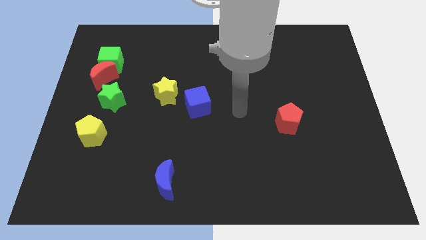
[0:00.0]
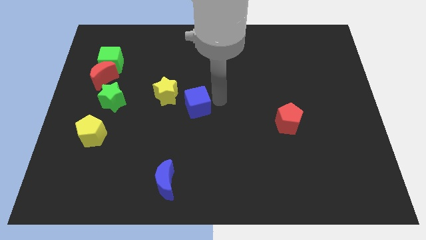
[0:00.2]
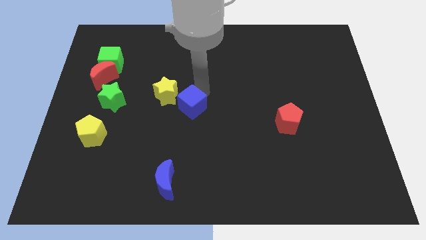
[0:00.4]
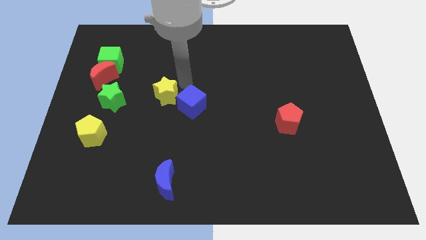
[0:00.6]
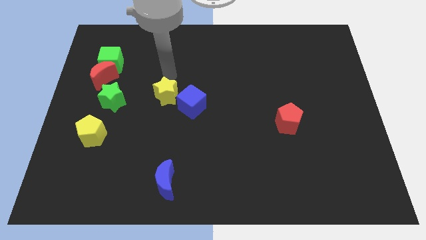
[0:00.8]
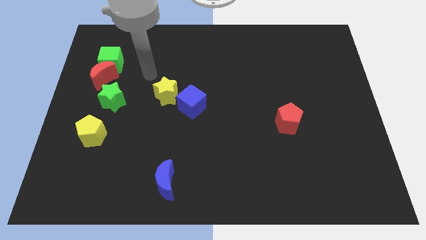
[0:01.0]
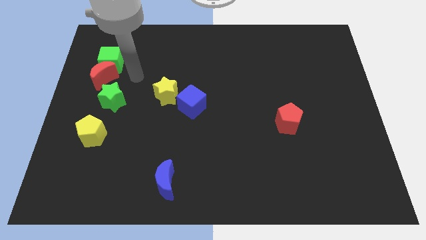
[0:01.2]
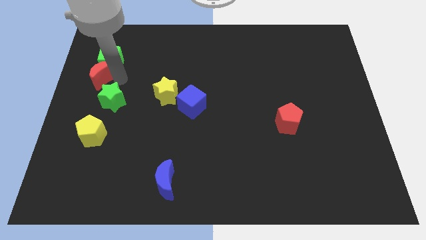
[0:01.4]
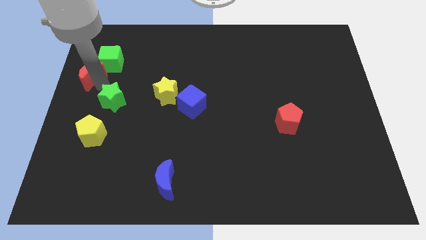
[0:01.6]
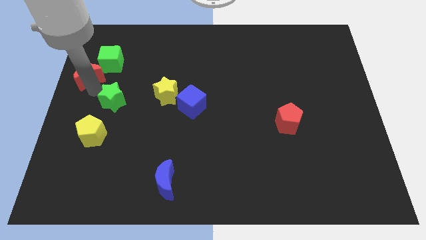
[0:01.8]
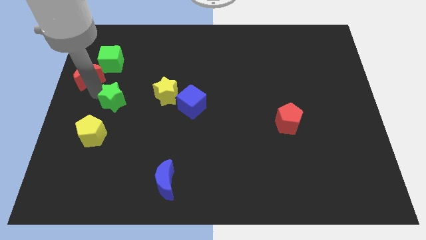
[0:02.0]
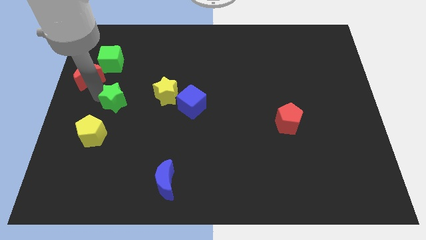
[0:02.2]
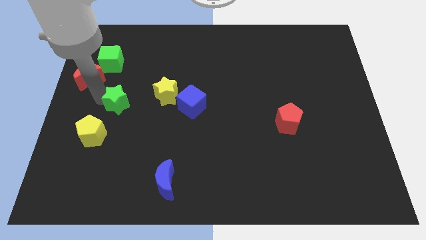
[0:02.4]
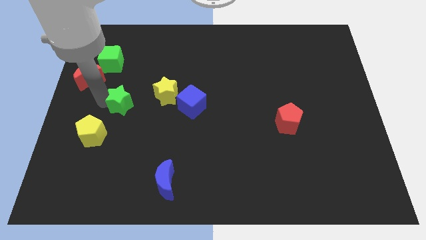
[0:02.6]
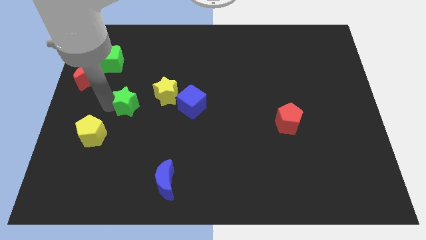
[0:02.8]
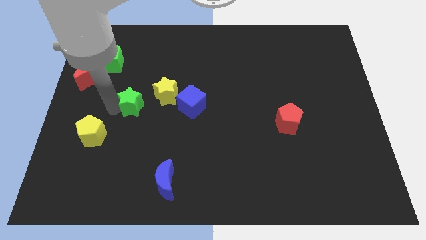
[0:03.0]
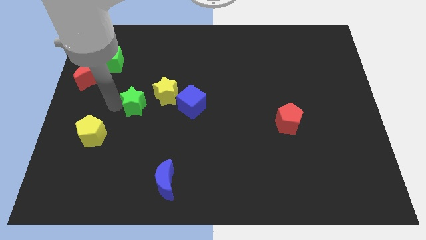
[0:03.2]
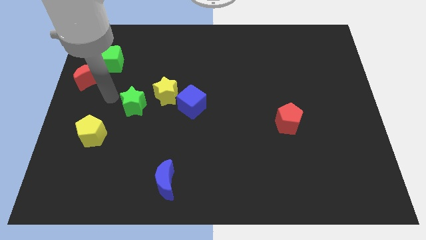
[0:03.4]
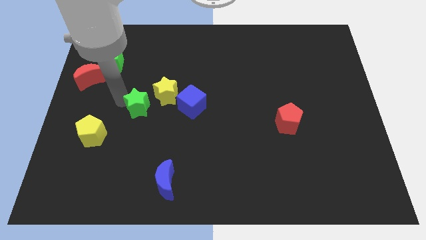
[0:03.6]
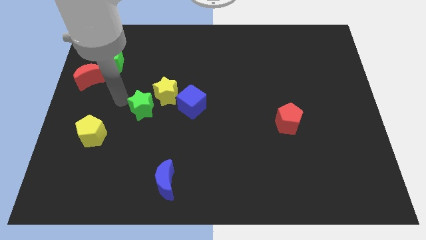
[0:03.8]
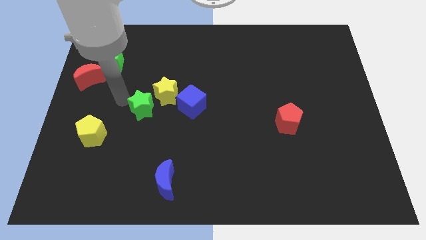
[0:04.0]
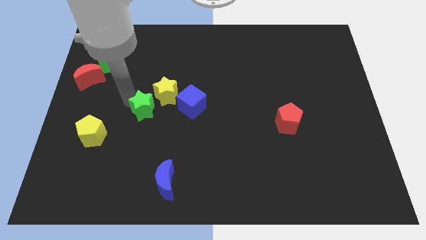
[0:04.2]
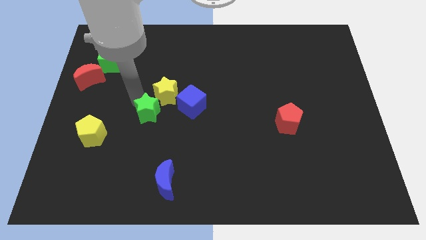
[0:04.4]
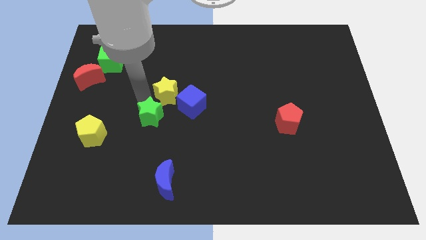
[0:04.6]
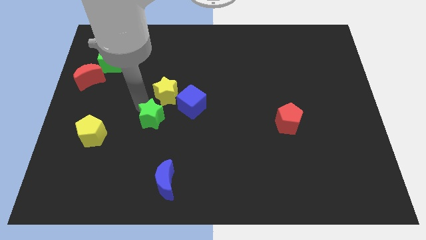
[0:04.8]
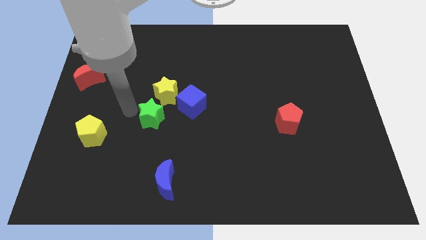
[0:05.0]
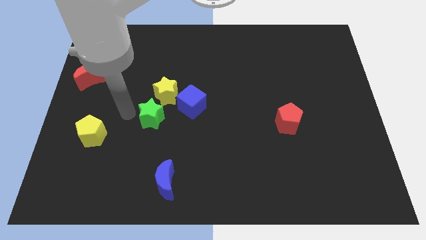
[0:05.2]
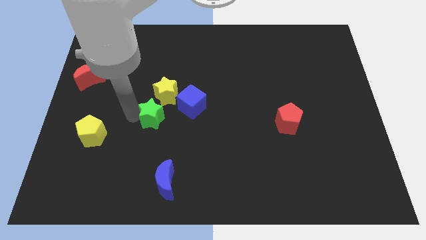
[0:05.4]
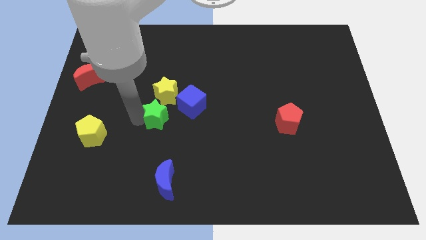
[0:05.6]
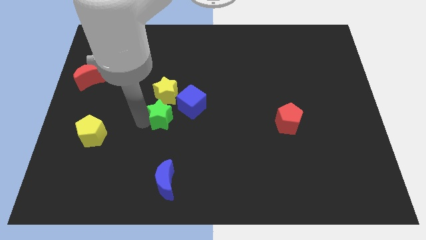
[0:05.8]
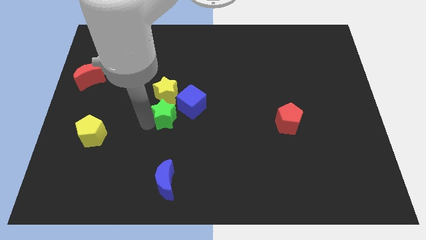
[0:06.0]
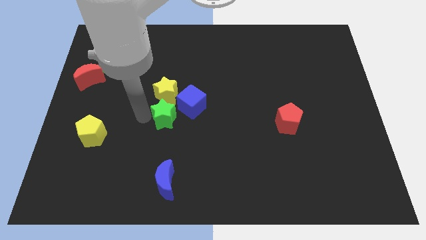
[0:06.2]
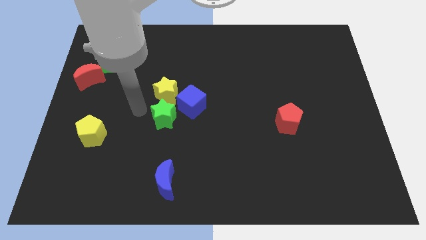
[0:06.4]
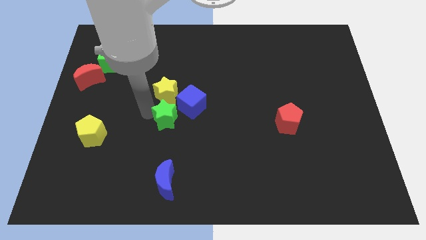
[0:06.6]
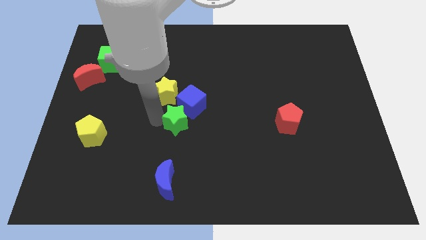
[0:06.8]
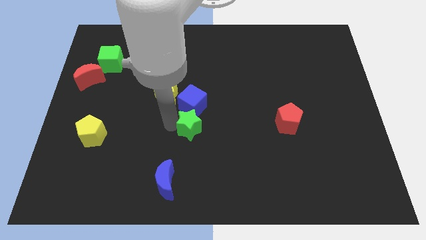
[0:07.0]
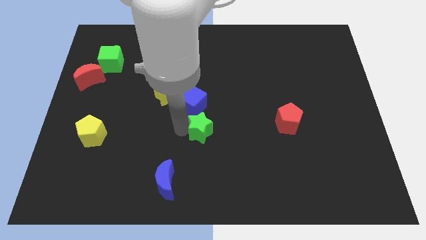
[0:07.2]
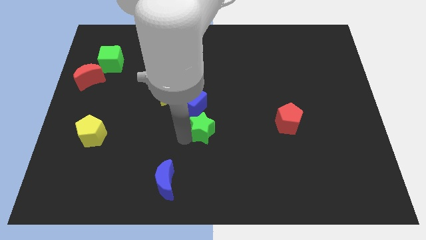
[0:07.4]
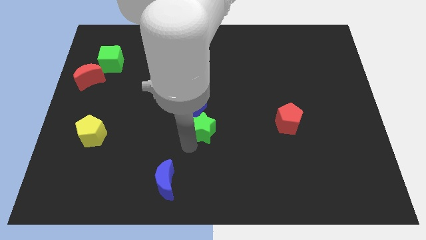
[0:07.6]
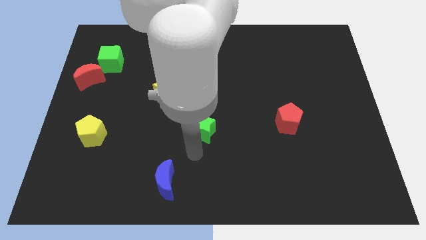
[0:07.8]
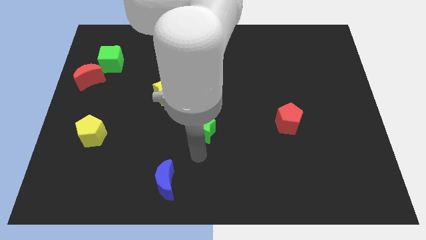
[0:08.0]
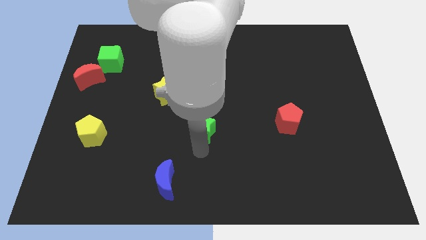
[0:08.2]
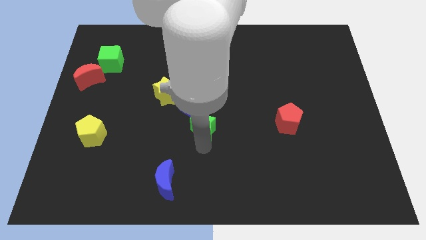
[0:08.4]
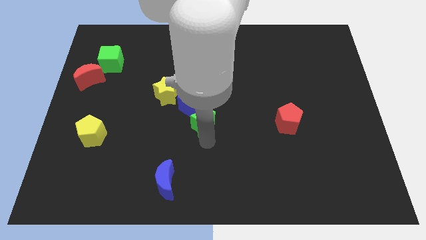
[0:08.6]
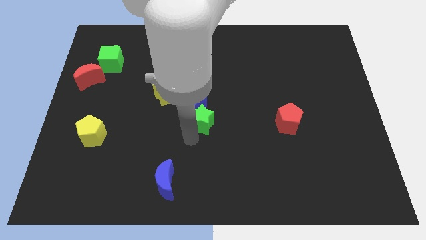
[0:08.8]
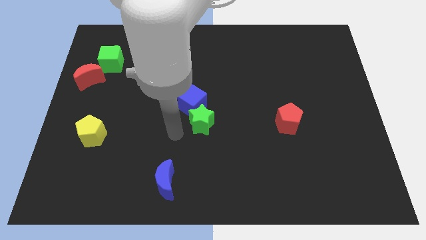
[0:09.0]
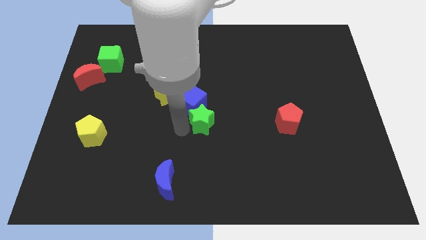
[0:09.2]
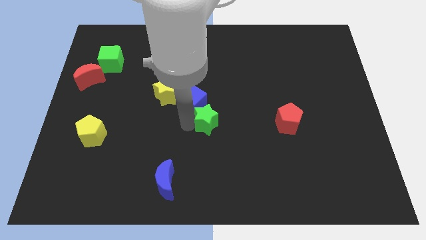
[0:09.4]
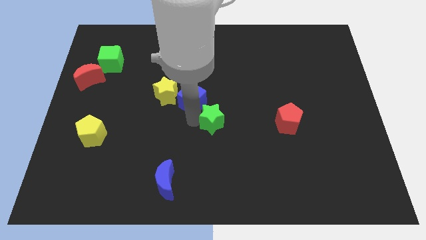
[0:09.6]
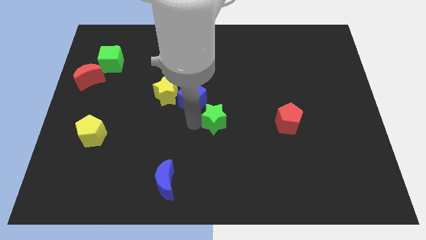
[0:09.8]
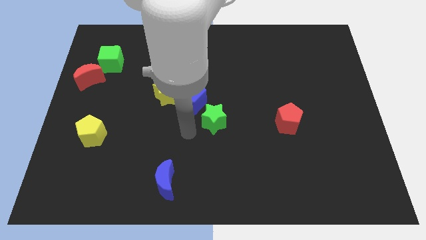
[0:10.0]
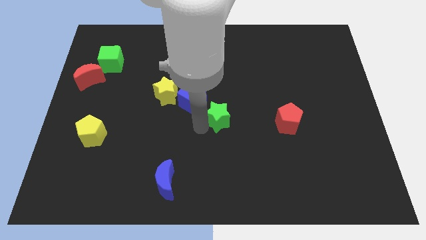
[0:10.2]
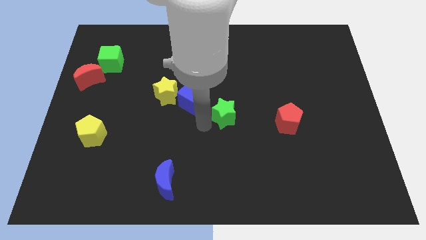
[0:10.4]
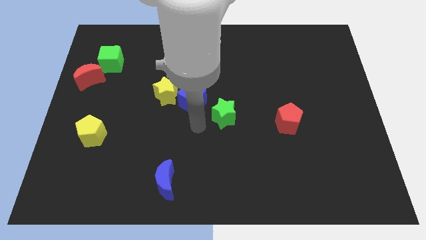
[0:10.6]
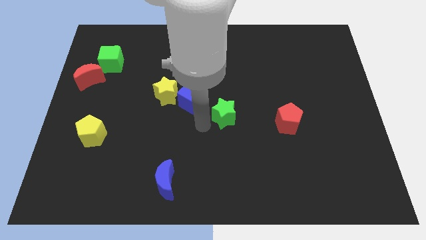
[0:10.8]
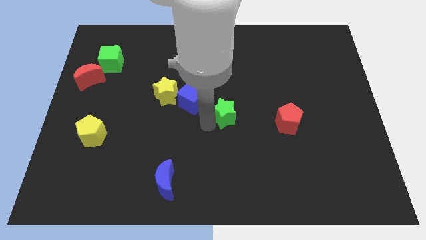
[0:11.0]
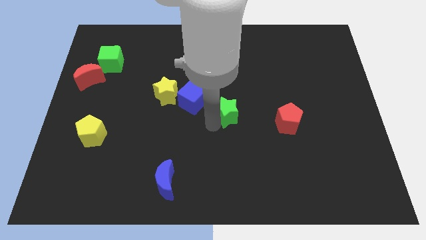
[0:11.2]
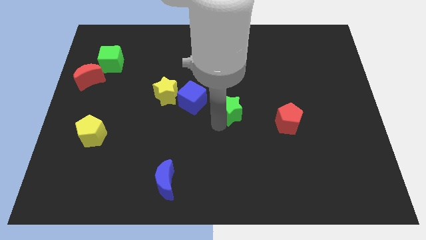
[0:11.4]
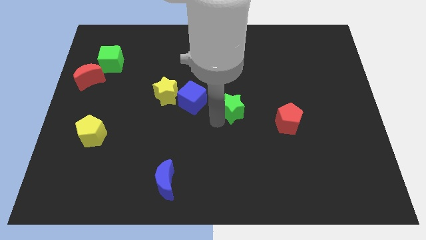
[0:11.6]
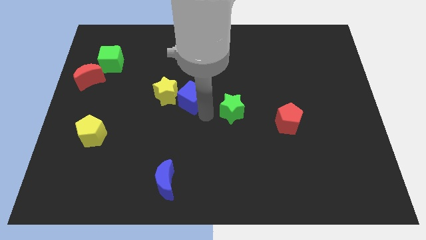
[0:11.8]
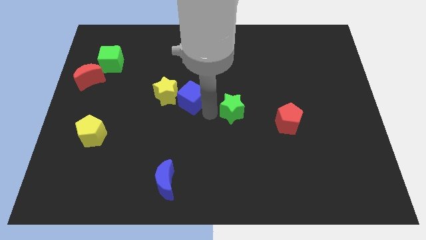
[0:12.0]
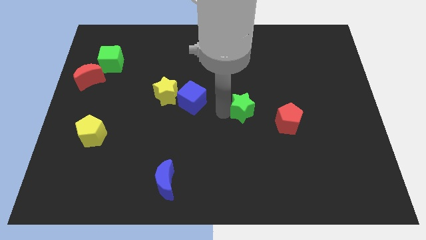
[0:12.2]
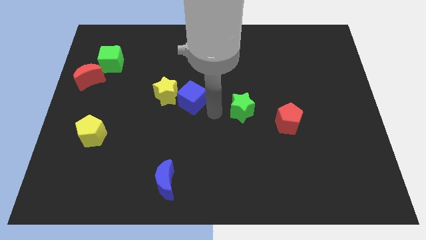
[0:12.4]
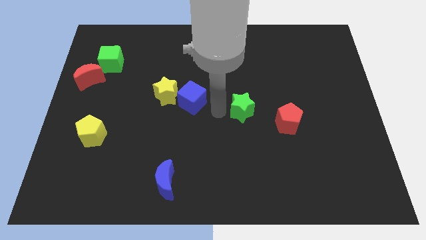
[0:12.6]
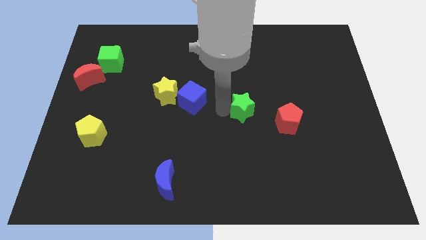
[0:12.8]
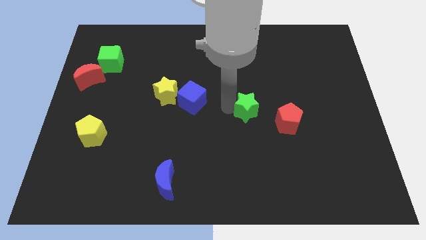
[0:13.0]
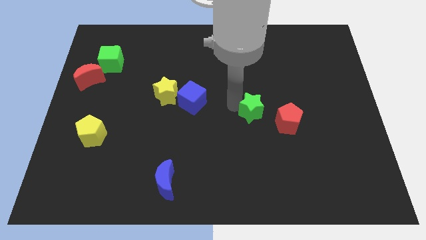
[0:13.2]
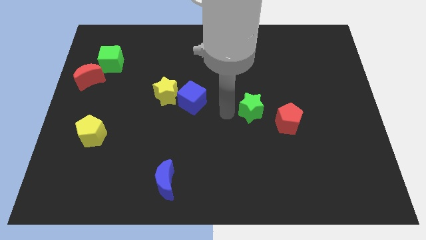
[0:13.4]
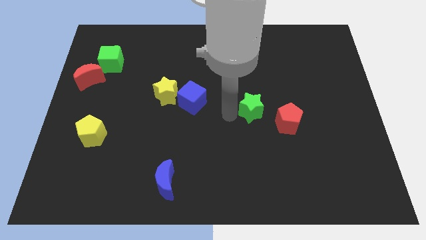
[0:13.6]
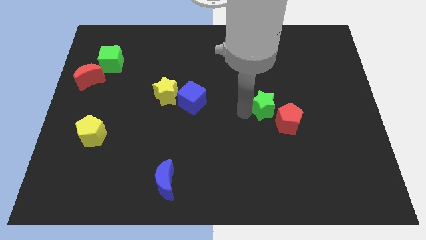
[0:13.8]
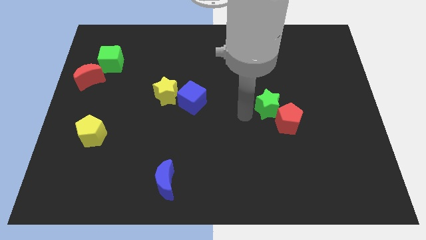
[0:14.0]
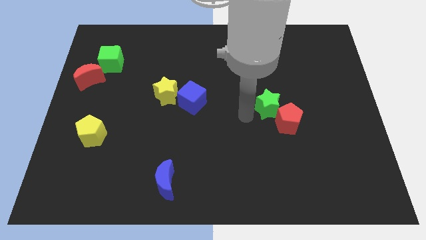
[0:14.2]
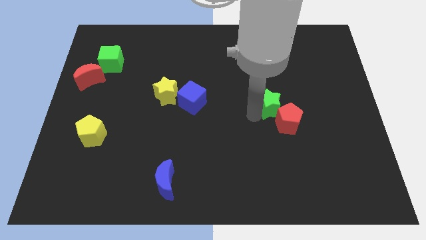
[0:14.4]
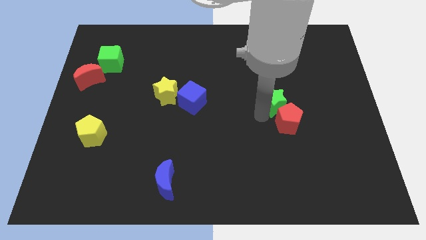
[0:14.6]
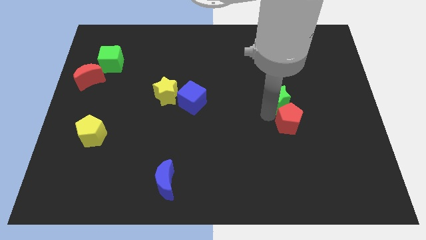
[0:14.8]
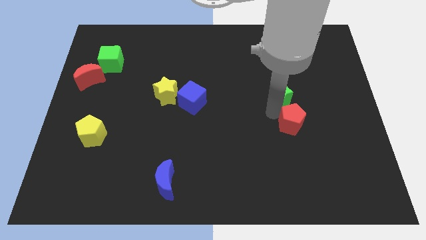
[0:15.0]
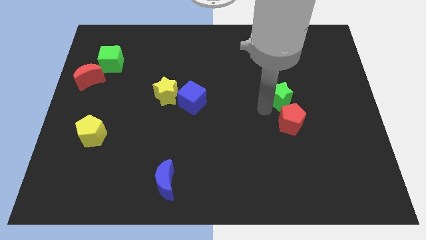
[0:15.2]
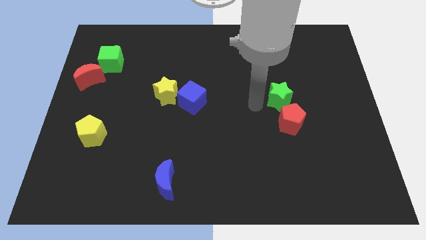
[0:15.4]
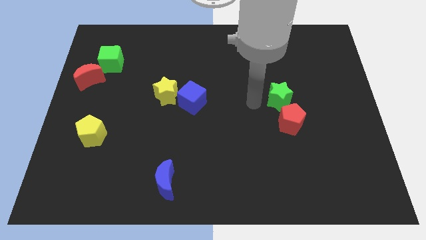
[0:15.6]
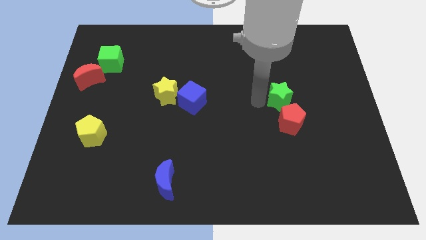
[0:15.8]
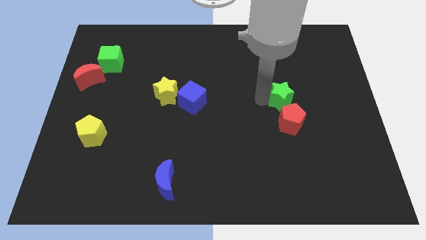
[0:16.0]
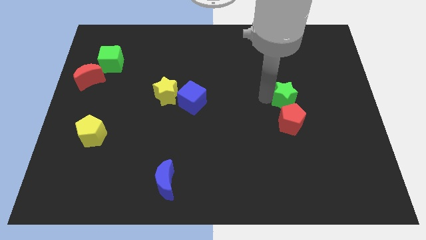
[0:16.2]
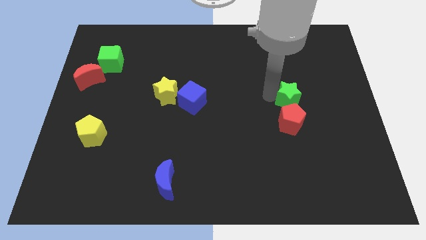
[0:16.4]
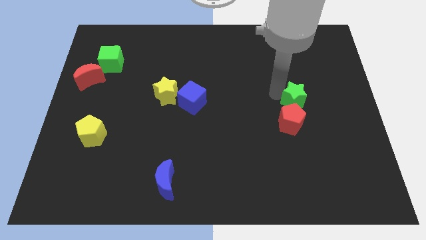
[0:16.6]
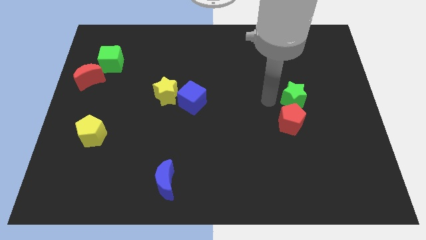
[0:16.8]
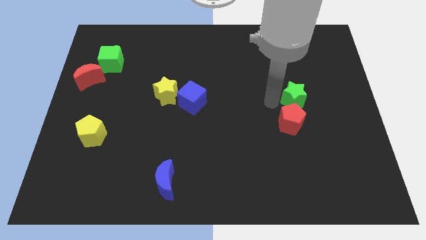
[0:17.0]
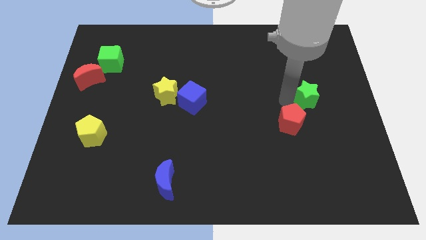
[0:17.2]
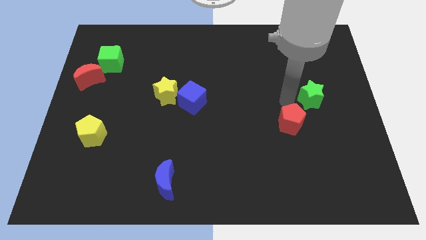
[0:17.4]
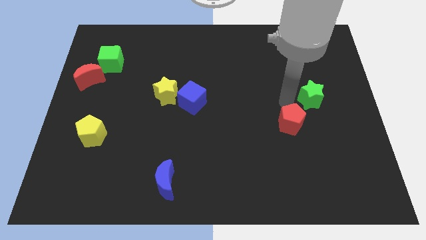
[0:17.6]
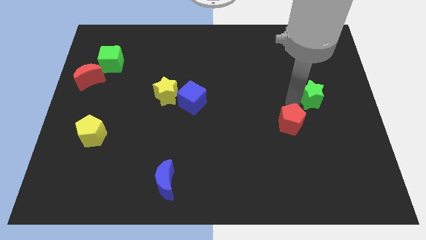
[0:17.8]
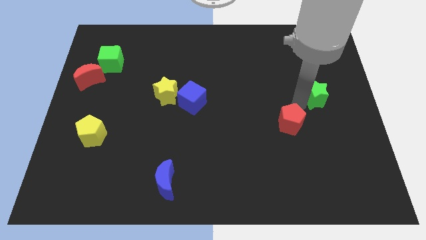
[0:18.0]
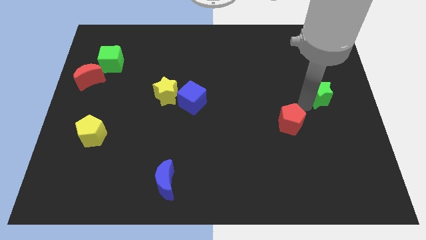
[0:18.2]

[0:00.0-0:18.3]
put the green star to the right side
